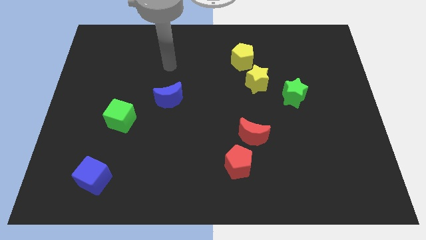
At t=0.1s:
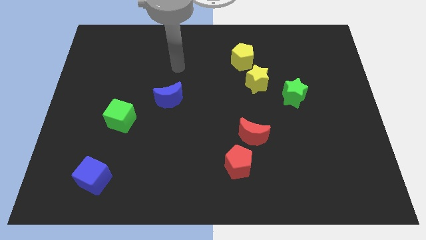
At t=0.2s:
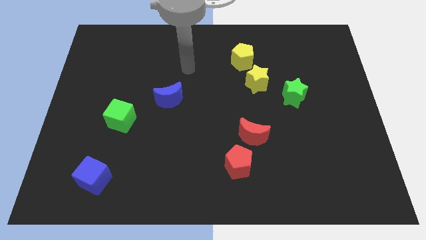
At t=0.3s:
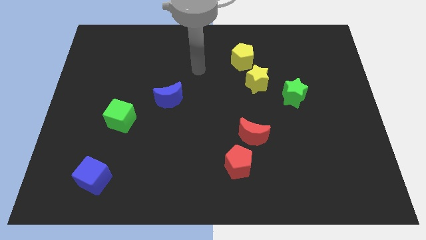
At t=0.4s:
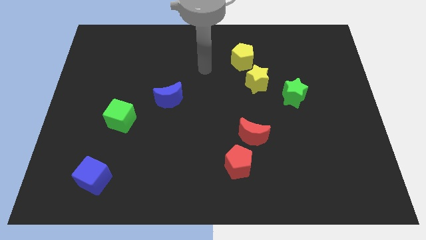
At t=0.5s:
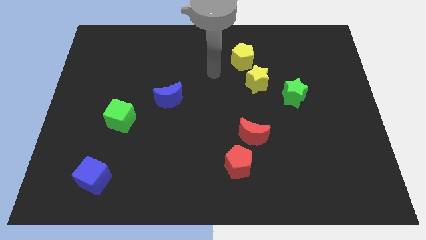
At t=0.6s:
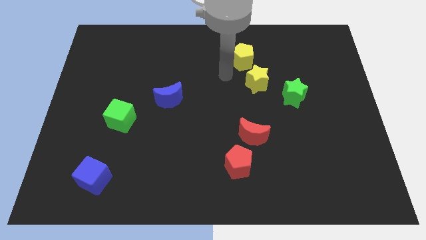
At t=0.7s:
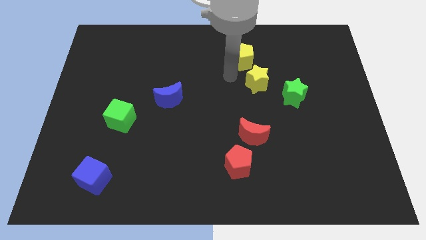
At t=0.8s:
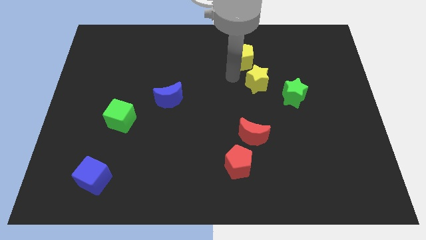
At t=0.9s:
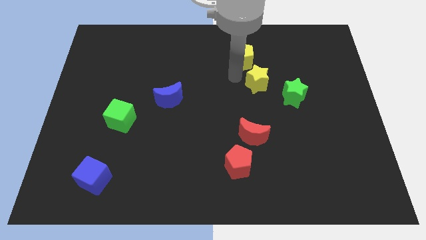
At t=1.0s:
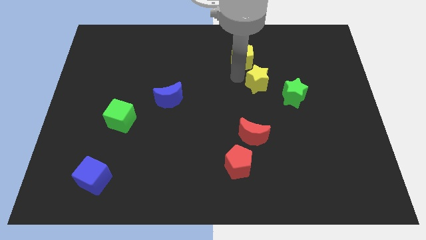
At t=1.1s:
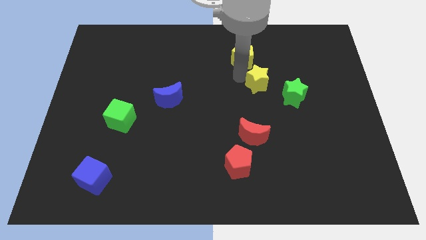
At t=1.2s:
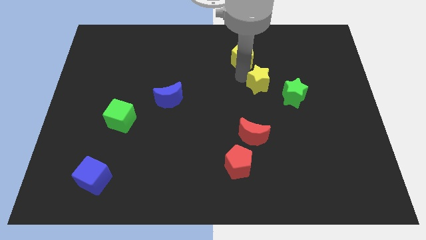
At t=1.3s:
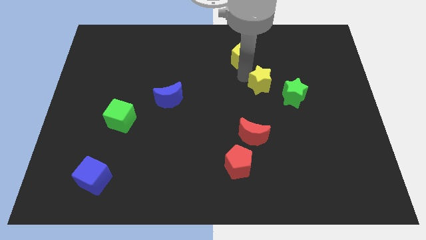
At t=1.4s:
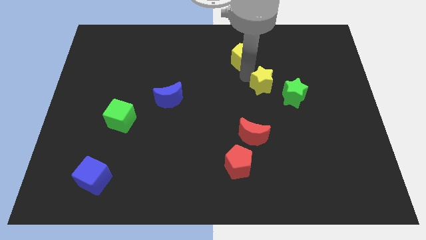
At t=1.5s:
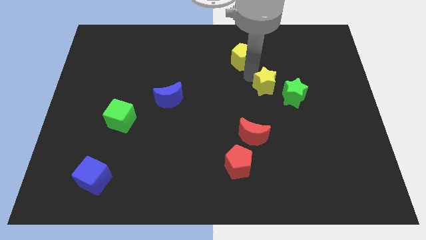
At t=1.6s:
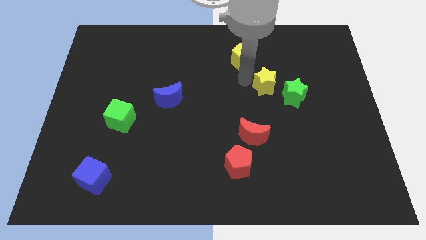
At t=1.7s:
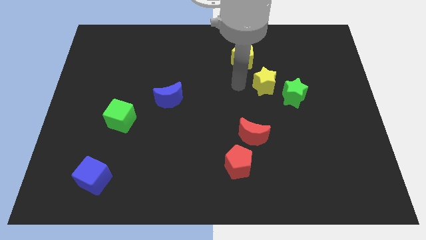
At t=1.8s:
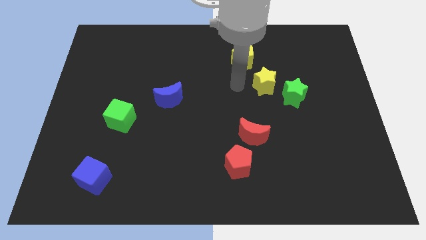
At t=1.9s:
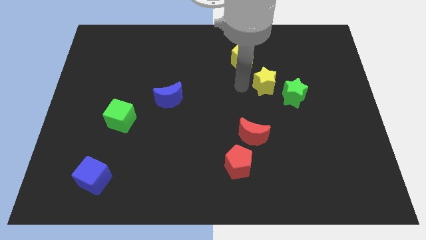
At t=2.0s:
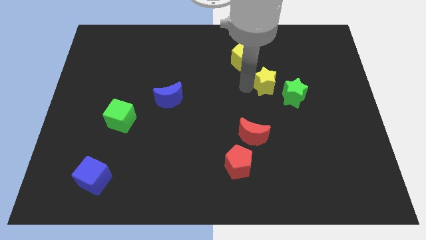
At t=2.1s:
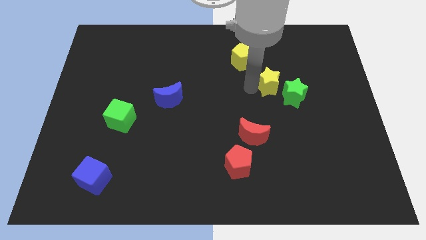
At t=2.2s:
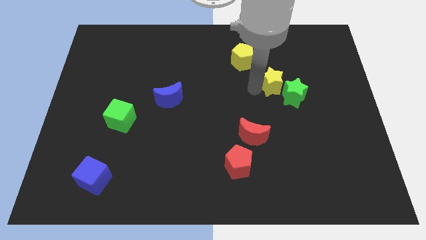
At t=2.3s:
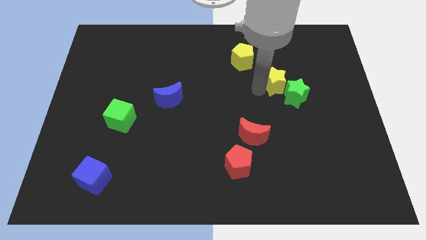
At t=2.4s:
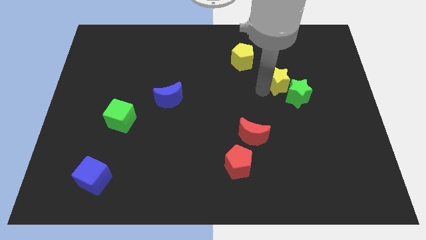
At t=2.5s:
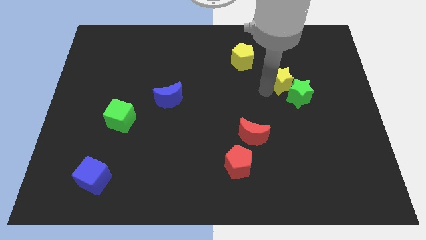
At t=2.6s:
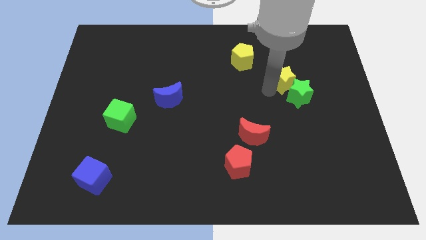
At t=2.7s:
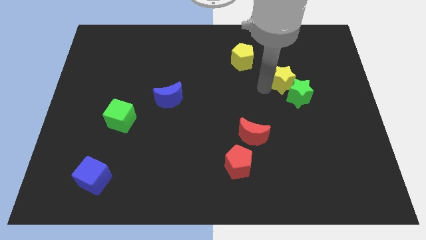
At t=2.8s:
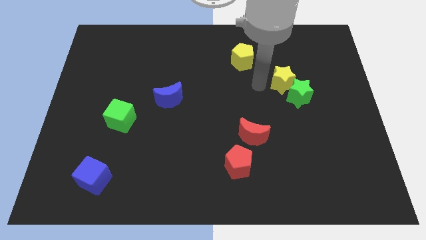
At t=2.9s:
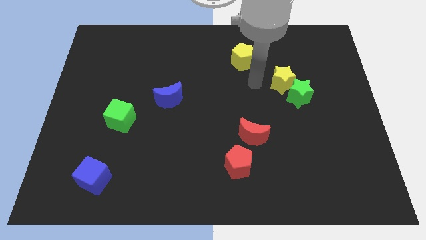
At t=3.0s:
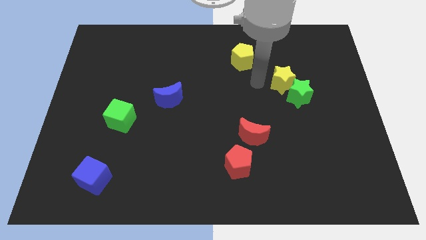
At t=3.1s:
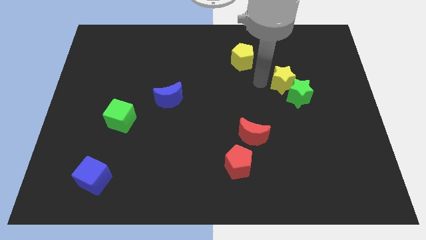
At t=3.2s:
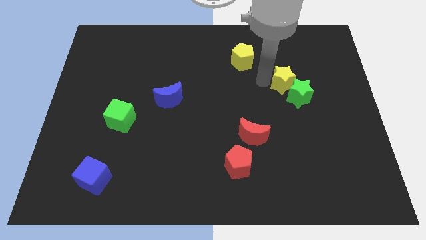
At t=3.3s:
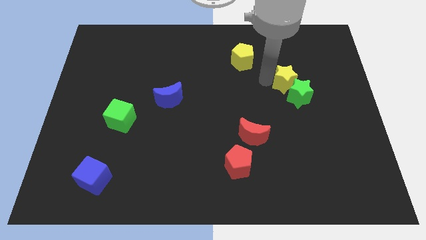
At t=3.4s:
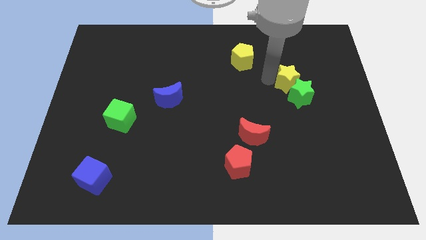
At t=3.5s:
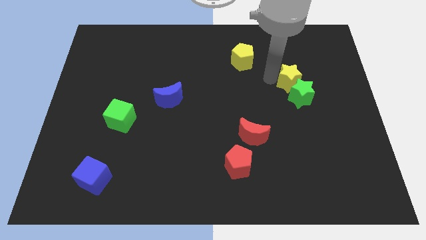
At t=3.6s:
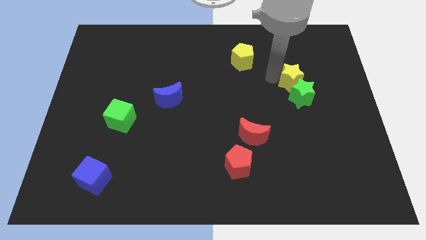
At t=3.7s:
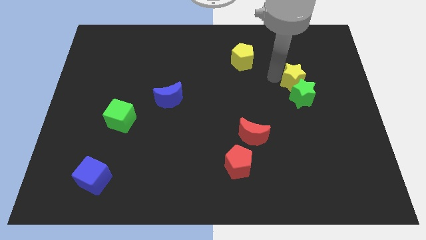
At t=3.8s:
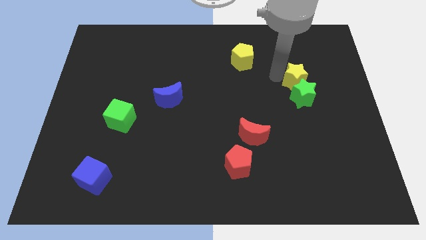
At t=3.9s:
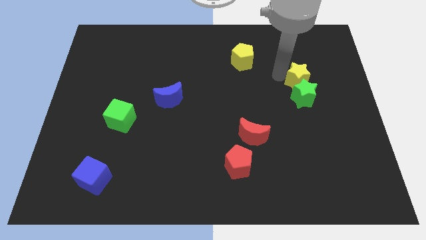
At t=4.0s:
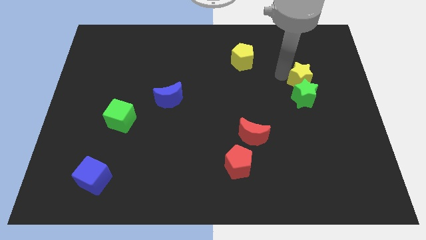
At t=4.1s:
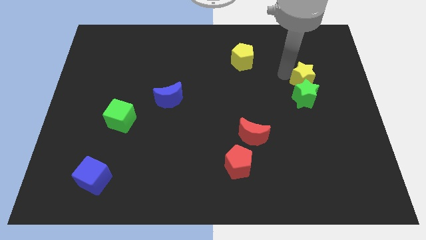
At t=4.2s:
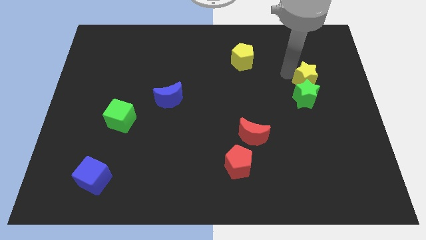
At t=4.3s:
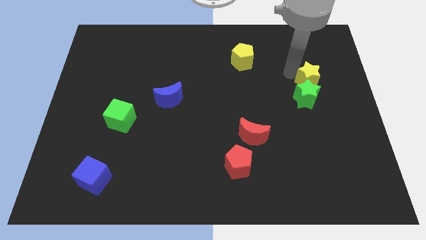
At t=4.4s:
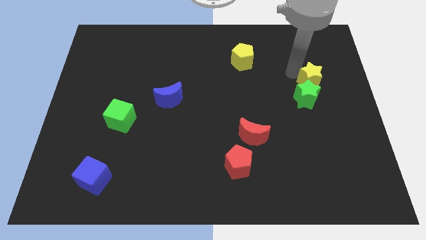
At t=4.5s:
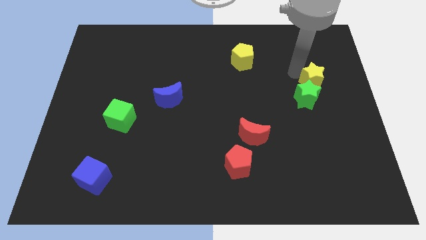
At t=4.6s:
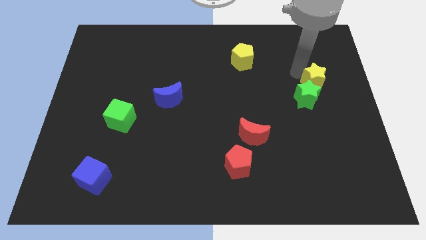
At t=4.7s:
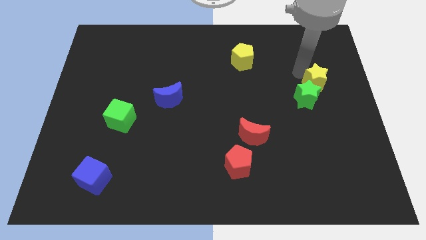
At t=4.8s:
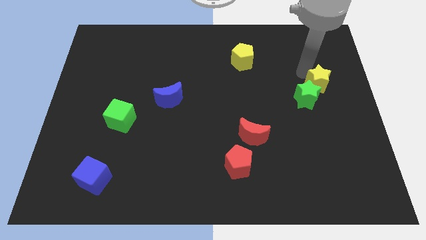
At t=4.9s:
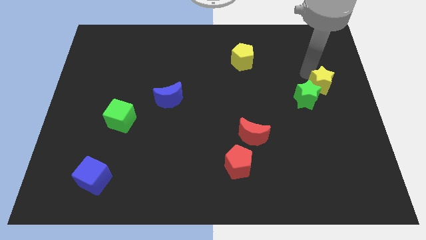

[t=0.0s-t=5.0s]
push the yellow star to the center right

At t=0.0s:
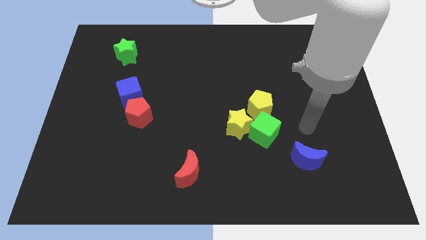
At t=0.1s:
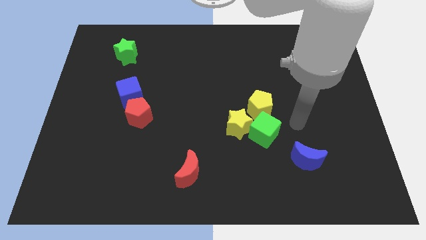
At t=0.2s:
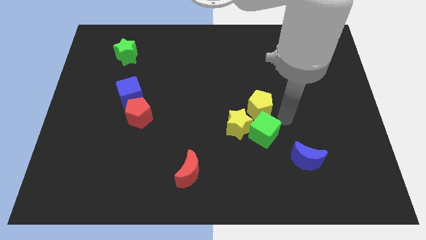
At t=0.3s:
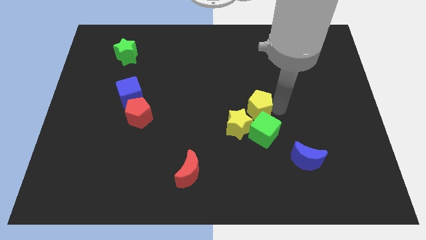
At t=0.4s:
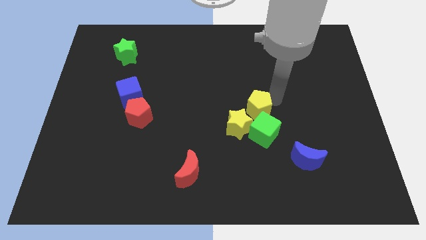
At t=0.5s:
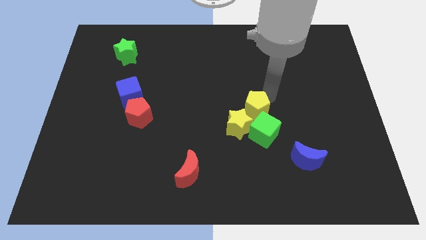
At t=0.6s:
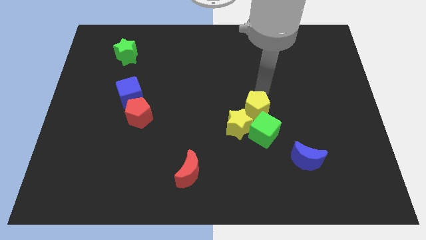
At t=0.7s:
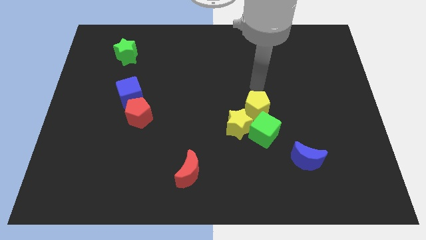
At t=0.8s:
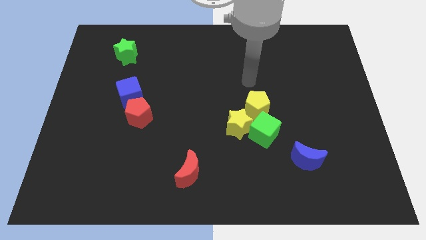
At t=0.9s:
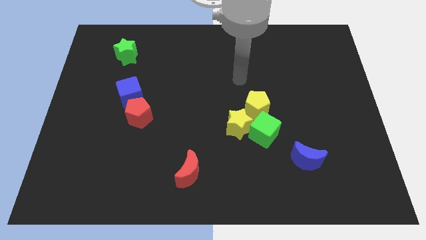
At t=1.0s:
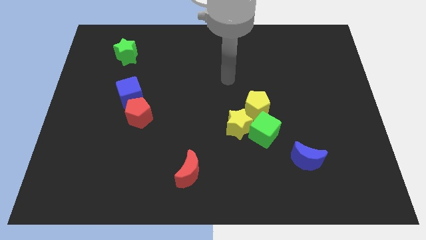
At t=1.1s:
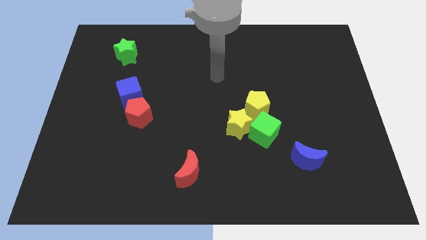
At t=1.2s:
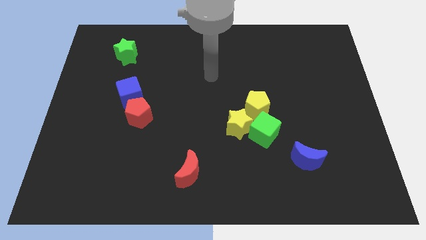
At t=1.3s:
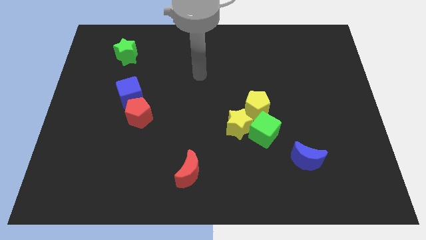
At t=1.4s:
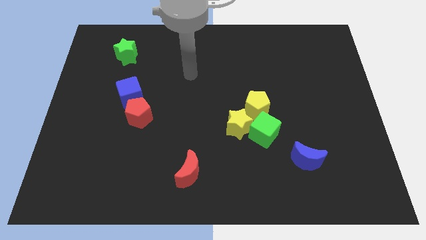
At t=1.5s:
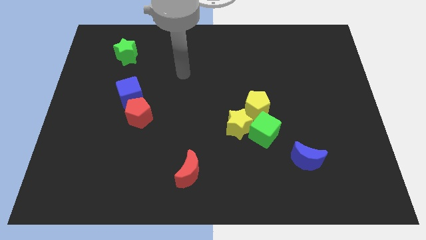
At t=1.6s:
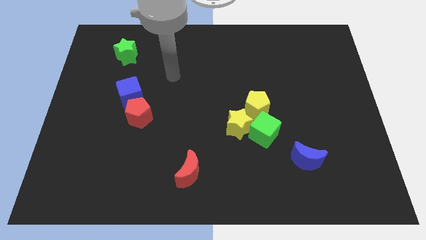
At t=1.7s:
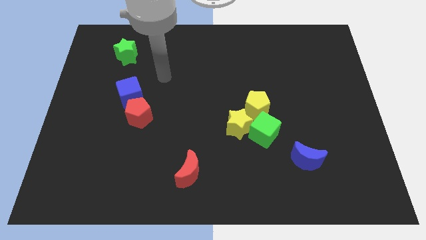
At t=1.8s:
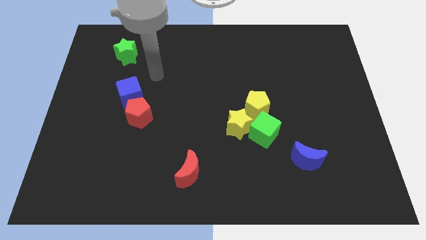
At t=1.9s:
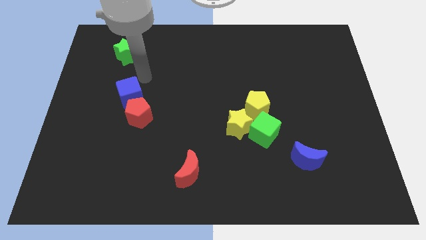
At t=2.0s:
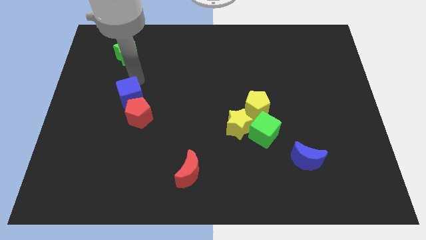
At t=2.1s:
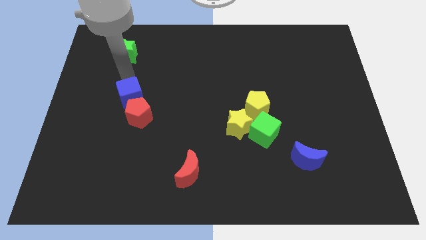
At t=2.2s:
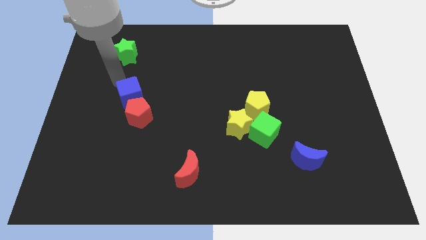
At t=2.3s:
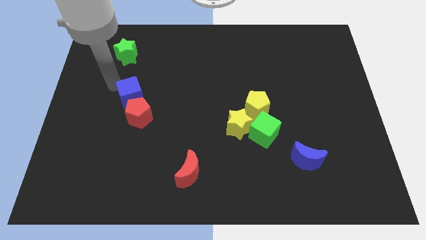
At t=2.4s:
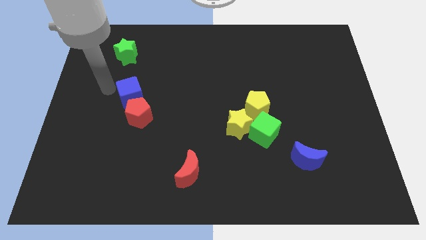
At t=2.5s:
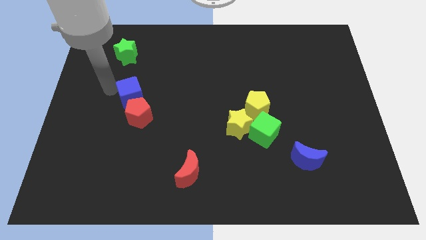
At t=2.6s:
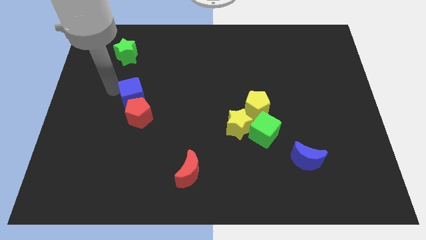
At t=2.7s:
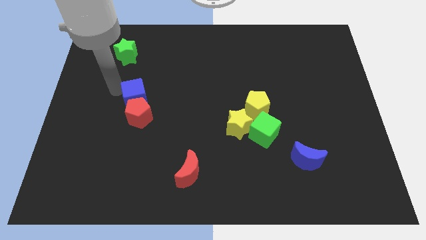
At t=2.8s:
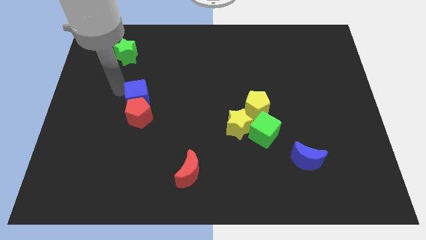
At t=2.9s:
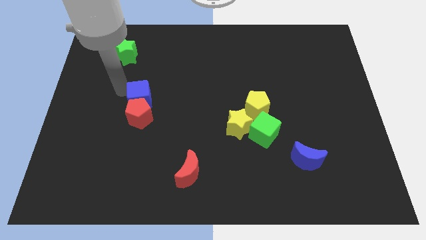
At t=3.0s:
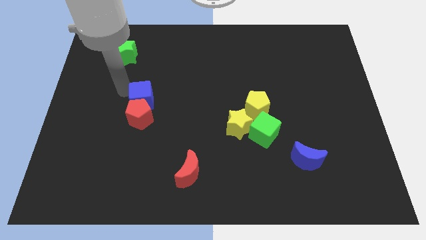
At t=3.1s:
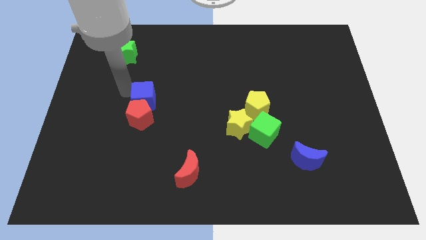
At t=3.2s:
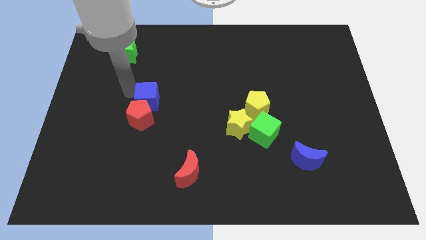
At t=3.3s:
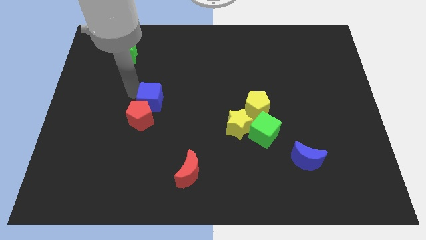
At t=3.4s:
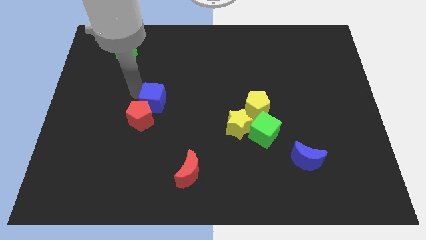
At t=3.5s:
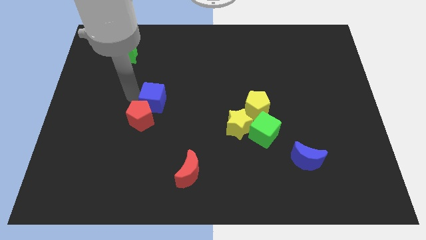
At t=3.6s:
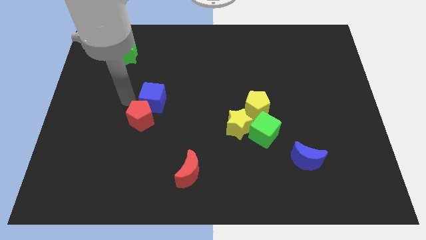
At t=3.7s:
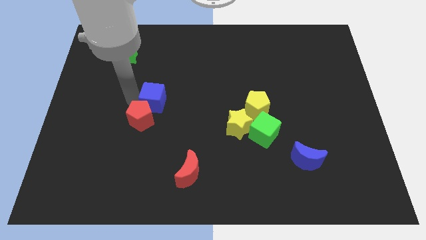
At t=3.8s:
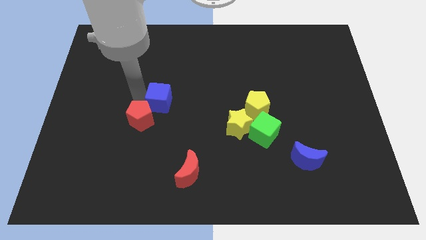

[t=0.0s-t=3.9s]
move the blue cube to the center
